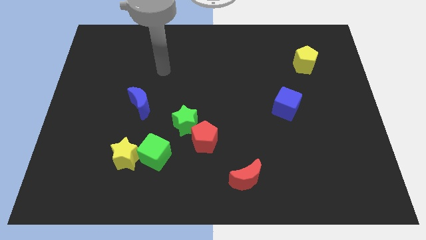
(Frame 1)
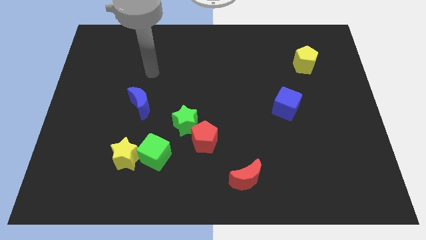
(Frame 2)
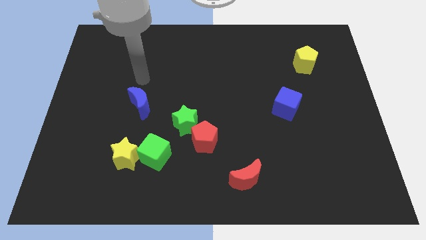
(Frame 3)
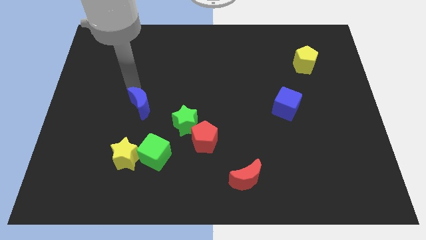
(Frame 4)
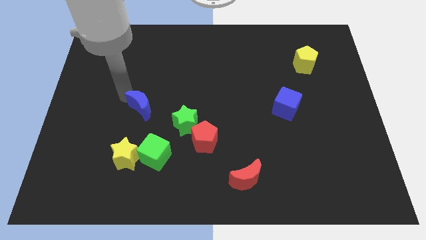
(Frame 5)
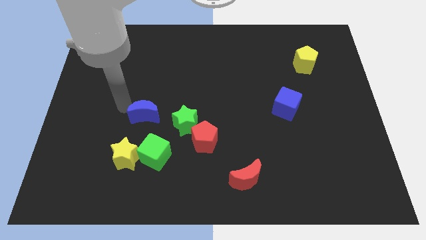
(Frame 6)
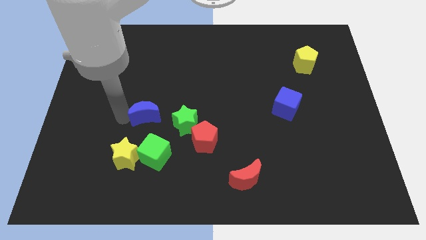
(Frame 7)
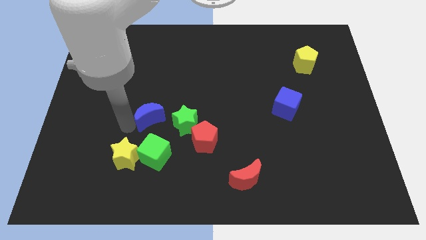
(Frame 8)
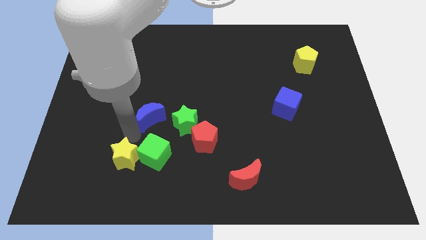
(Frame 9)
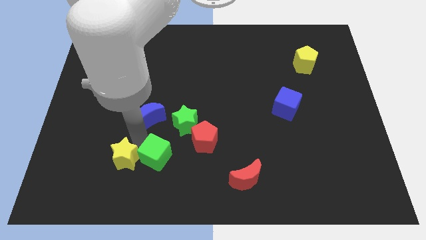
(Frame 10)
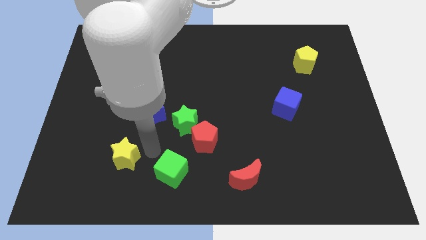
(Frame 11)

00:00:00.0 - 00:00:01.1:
pull the yellow star apart from the green cube

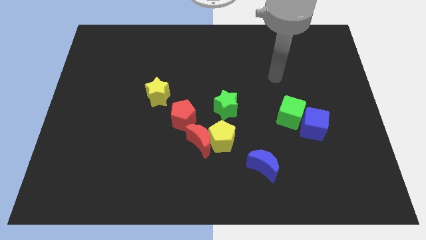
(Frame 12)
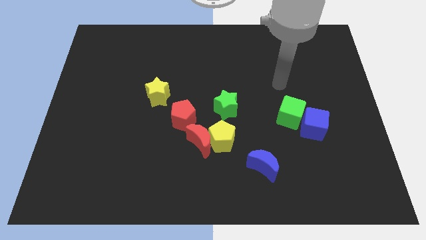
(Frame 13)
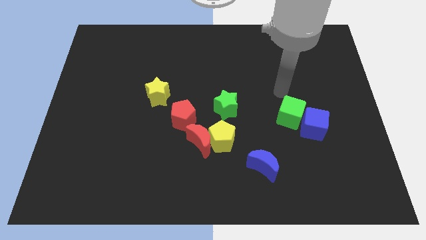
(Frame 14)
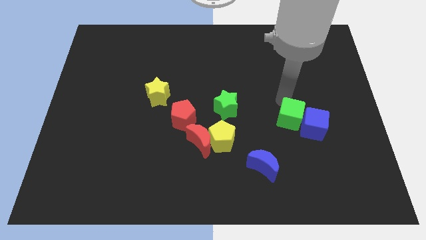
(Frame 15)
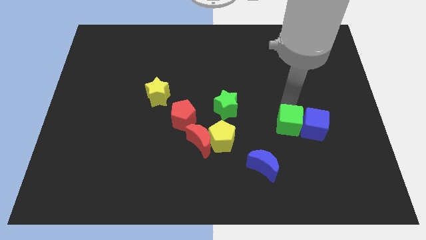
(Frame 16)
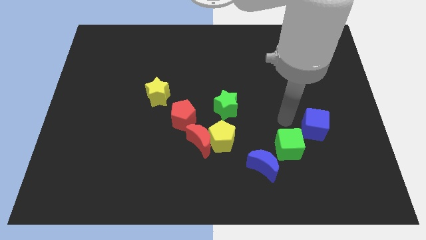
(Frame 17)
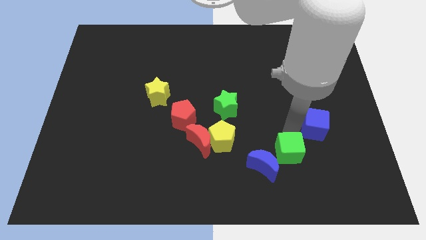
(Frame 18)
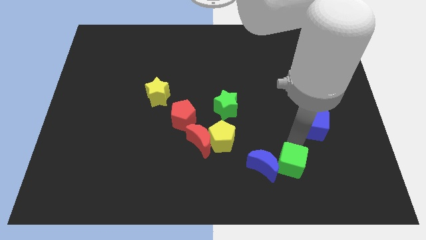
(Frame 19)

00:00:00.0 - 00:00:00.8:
pull the blue cube apart from the green cube

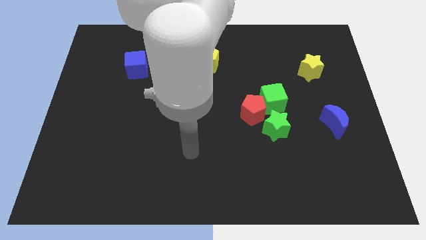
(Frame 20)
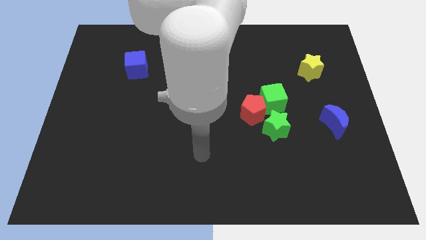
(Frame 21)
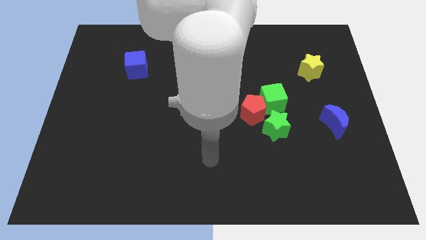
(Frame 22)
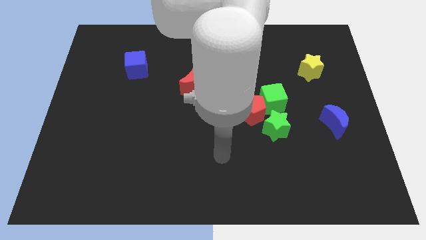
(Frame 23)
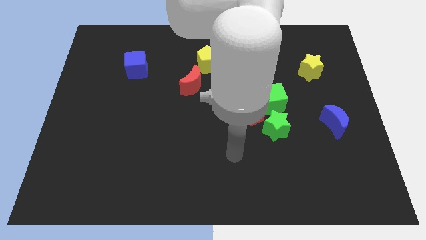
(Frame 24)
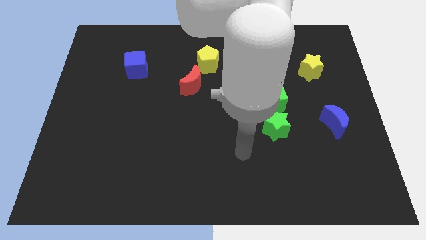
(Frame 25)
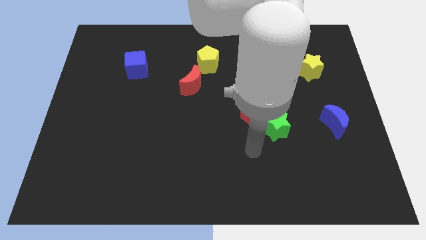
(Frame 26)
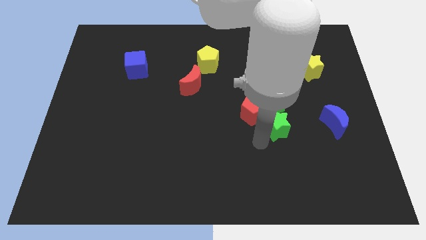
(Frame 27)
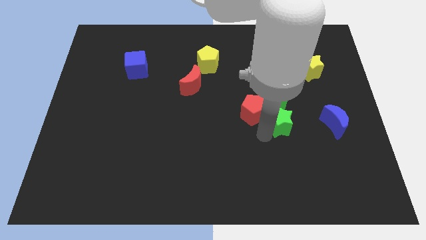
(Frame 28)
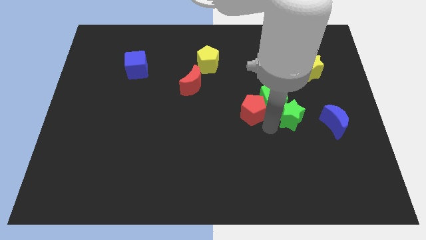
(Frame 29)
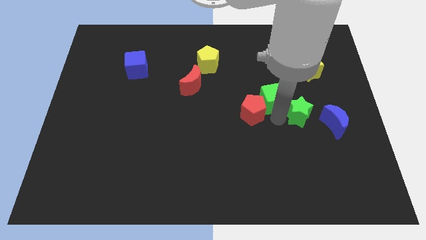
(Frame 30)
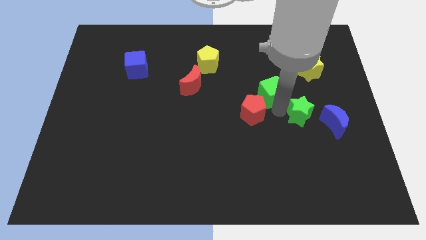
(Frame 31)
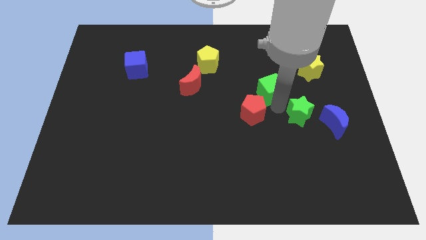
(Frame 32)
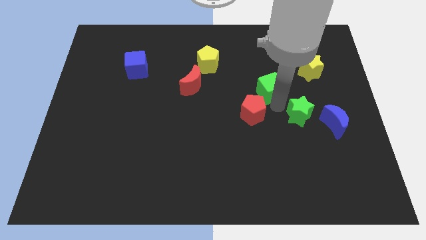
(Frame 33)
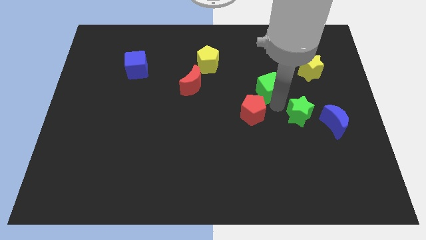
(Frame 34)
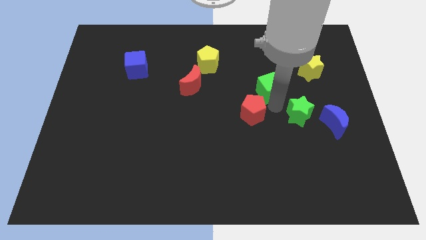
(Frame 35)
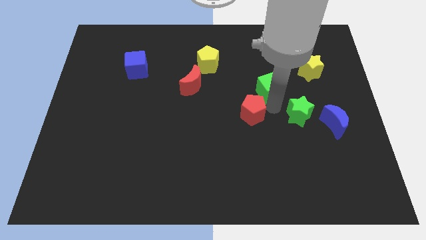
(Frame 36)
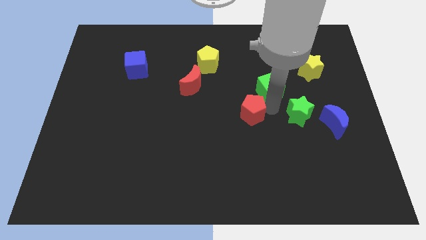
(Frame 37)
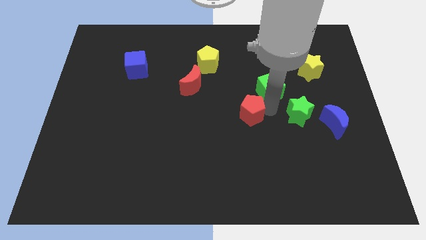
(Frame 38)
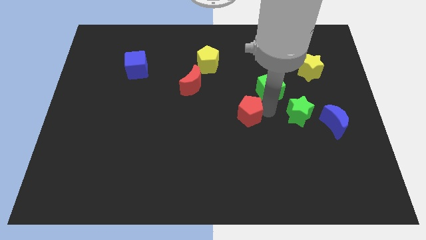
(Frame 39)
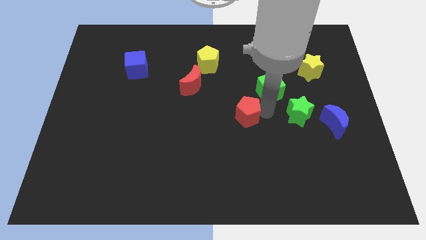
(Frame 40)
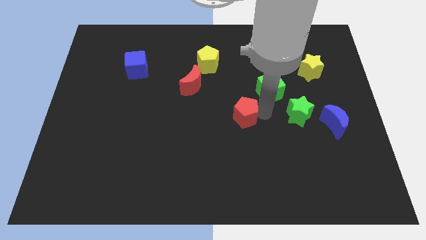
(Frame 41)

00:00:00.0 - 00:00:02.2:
pull the red pentagon apart from the green cube and green star

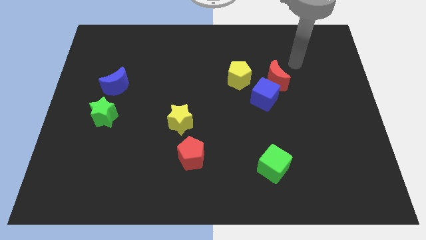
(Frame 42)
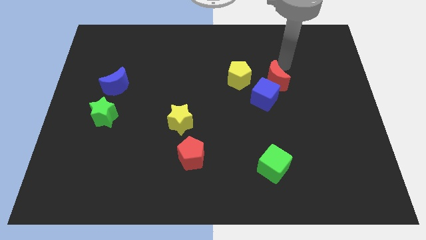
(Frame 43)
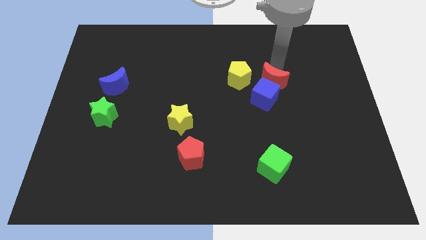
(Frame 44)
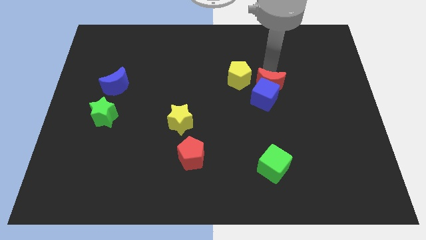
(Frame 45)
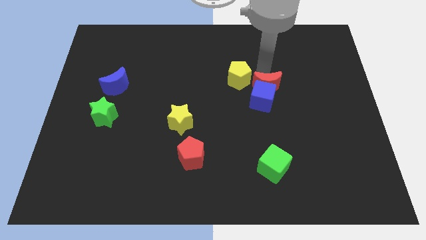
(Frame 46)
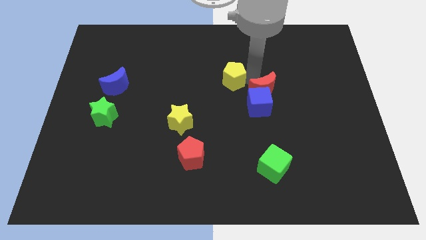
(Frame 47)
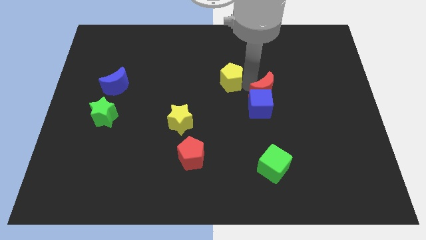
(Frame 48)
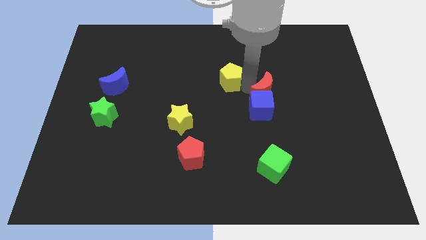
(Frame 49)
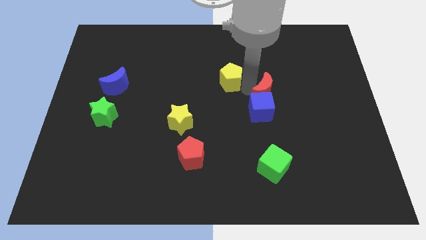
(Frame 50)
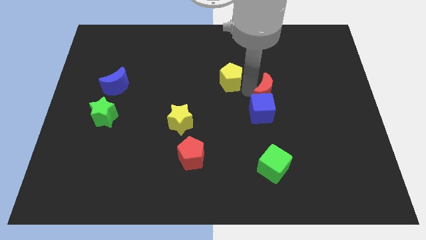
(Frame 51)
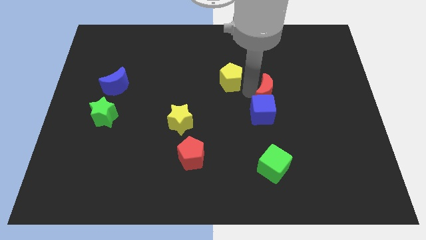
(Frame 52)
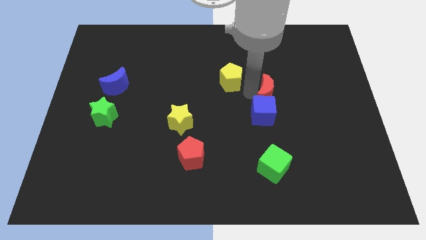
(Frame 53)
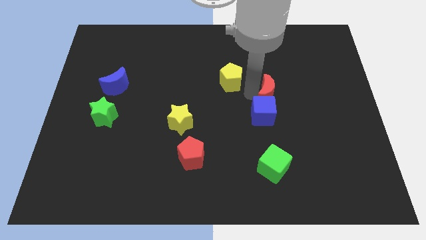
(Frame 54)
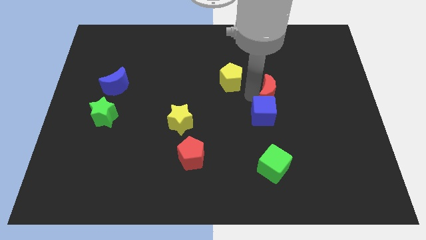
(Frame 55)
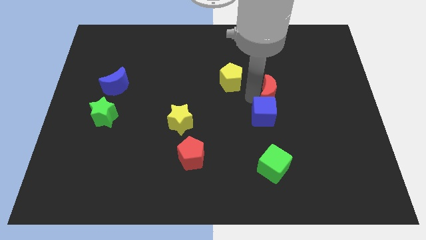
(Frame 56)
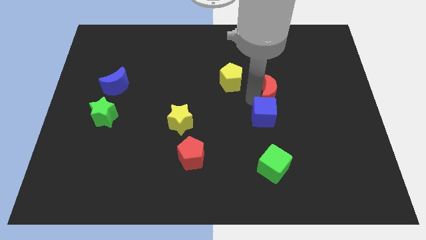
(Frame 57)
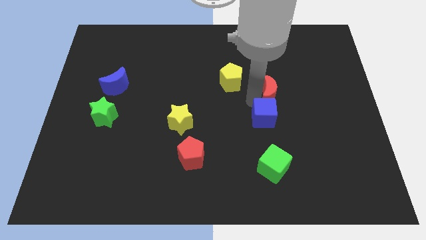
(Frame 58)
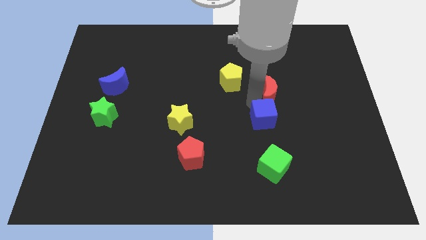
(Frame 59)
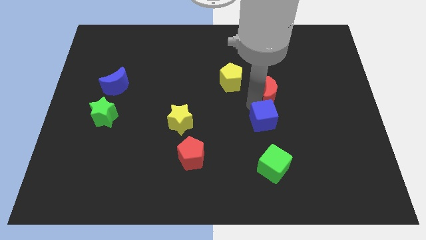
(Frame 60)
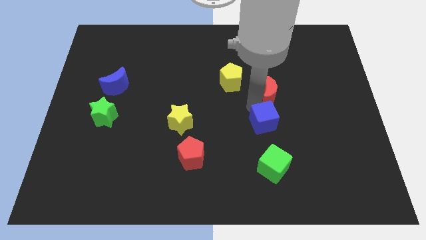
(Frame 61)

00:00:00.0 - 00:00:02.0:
move the blue cube away from the red moon and yellow pentagon

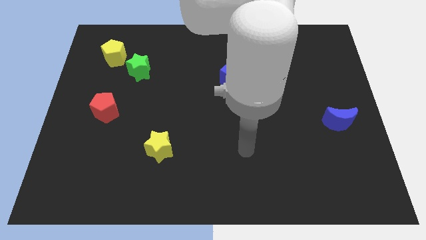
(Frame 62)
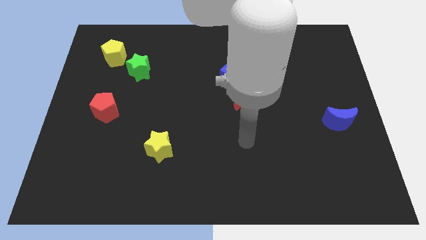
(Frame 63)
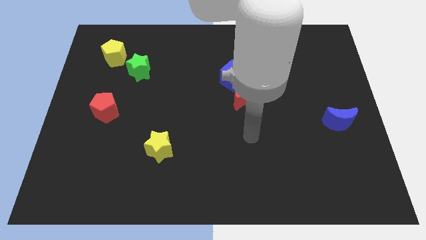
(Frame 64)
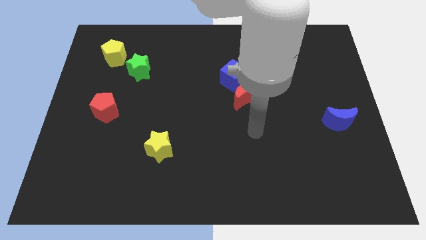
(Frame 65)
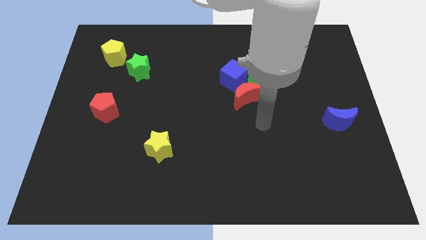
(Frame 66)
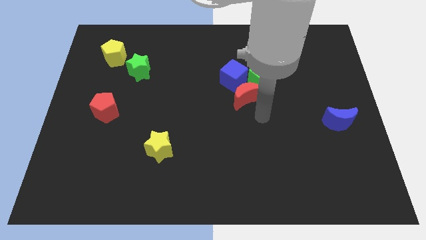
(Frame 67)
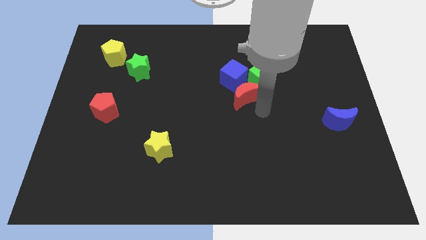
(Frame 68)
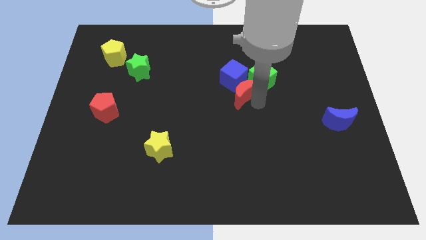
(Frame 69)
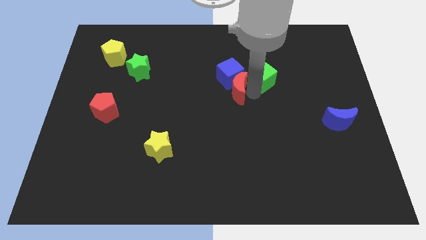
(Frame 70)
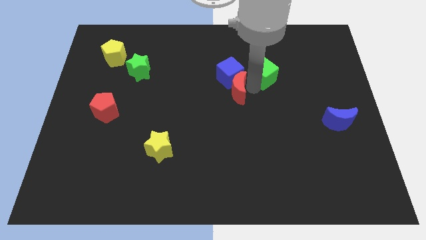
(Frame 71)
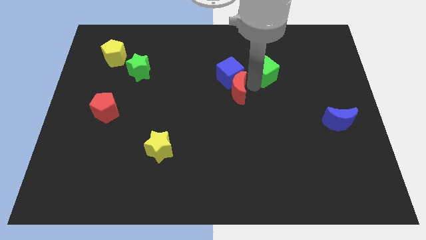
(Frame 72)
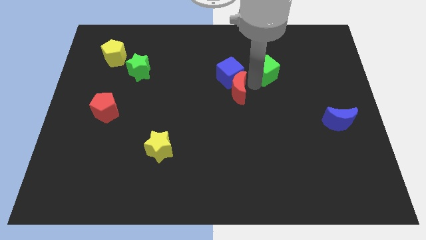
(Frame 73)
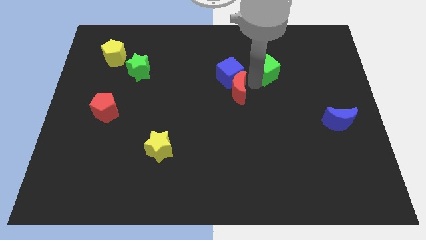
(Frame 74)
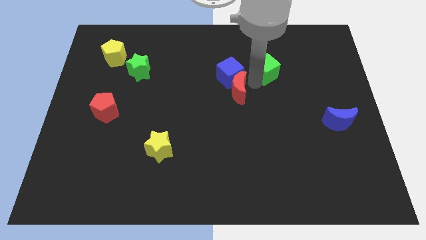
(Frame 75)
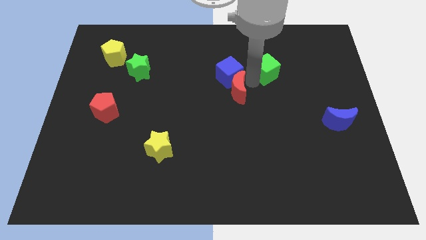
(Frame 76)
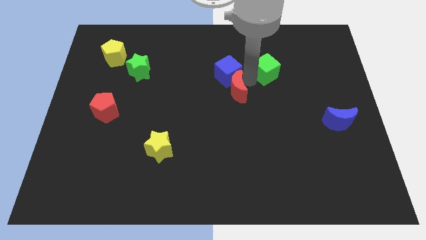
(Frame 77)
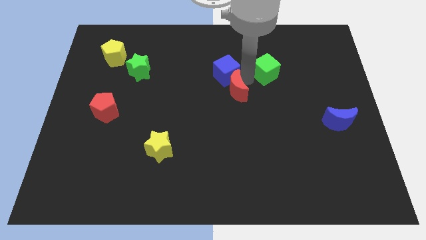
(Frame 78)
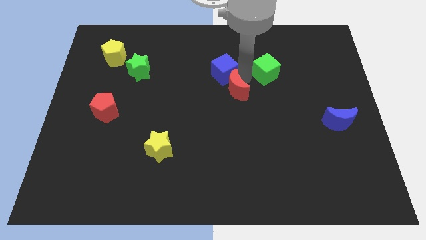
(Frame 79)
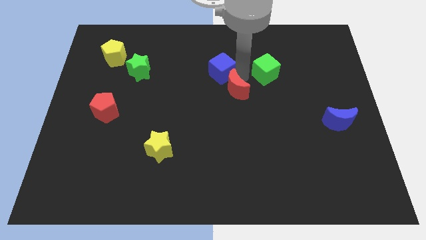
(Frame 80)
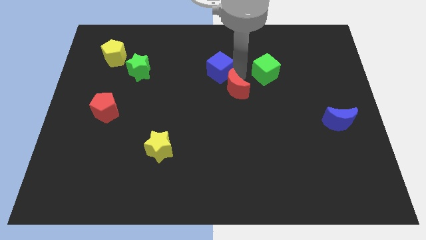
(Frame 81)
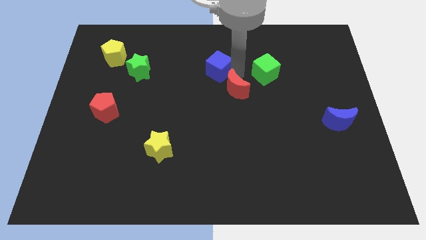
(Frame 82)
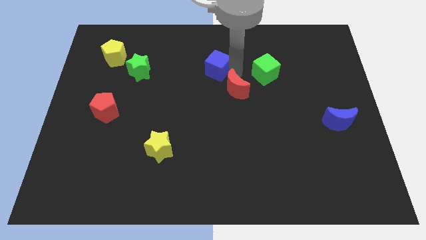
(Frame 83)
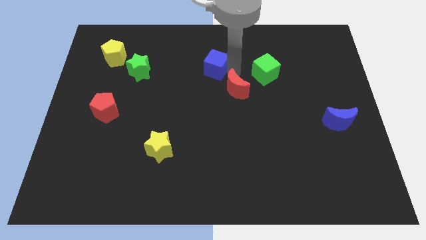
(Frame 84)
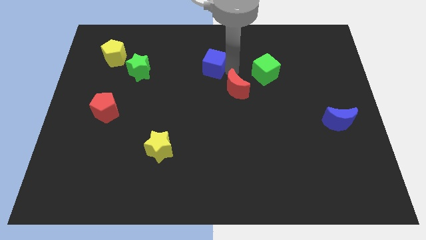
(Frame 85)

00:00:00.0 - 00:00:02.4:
move the blue cube away from the red moon and green cube

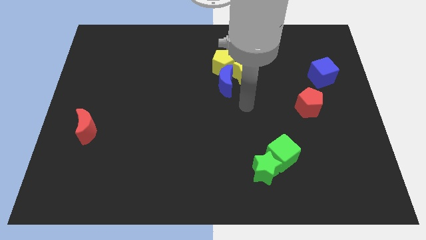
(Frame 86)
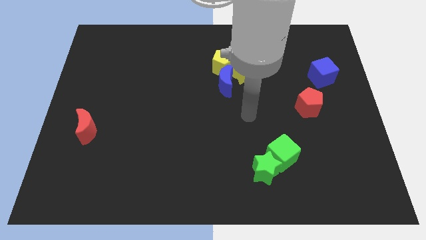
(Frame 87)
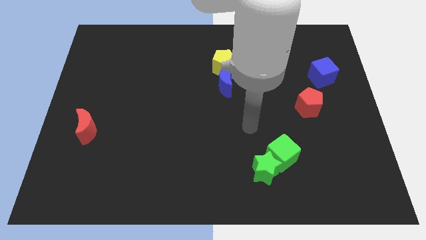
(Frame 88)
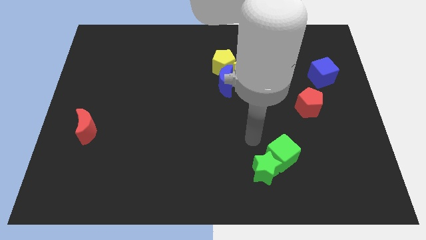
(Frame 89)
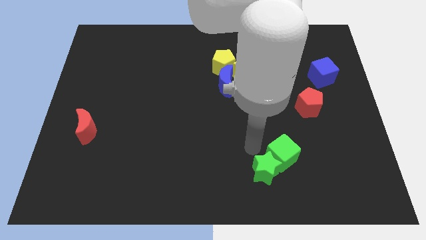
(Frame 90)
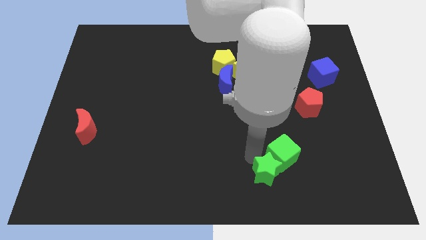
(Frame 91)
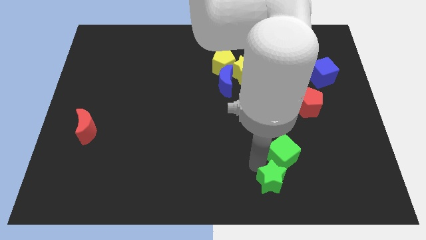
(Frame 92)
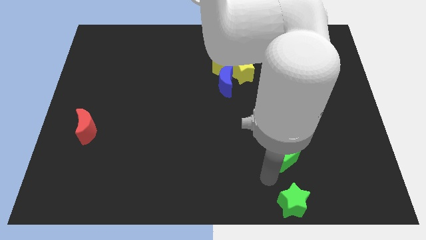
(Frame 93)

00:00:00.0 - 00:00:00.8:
separate the green cube from the green star
